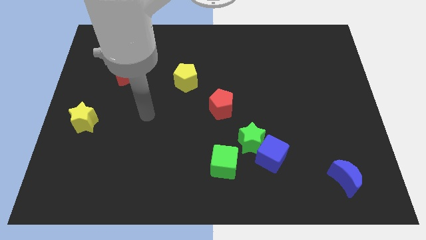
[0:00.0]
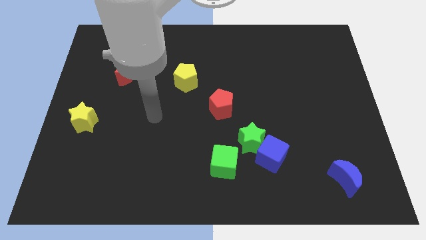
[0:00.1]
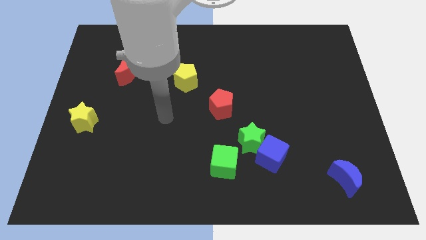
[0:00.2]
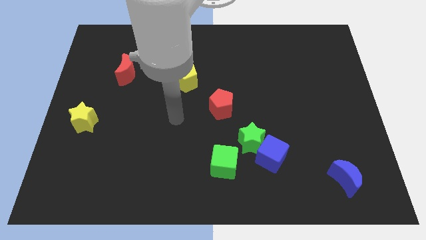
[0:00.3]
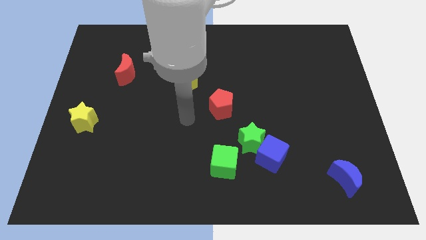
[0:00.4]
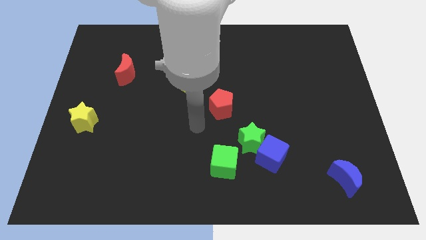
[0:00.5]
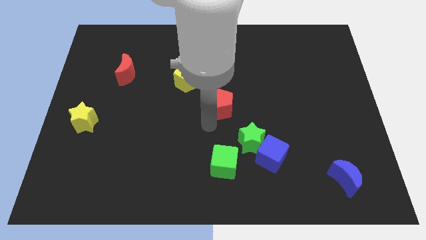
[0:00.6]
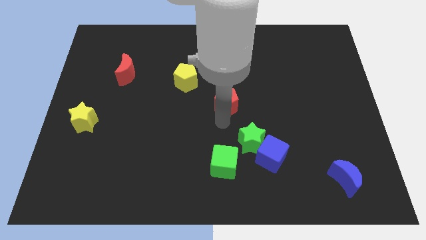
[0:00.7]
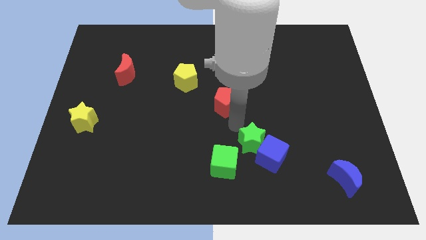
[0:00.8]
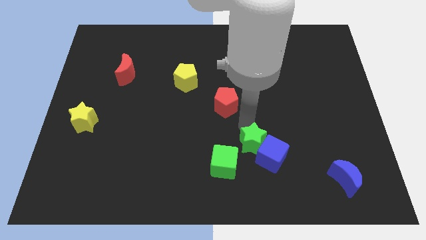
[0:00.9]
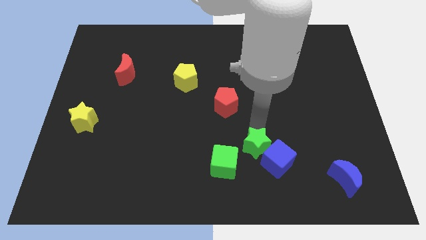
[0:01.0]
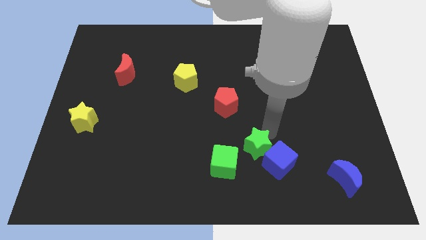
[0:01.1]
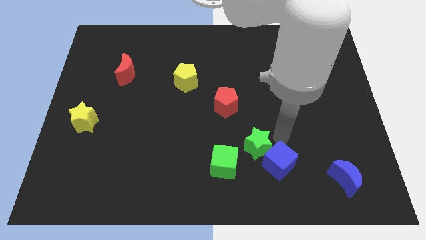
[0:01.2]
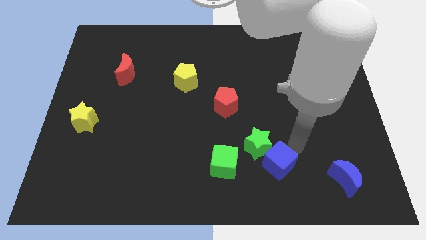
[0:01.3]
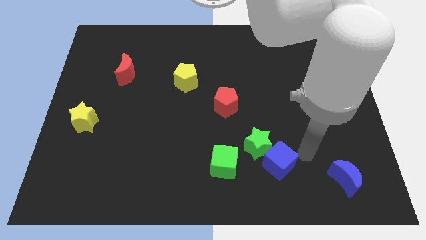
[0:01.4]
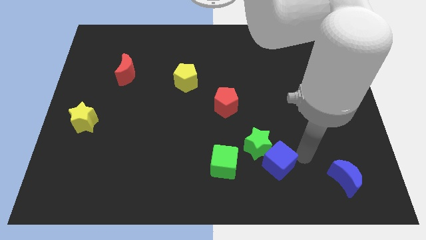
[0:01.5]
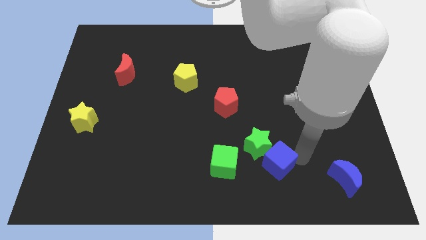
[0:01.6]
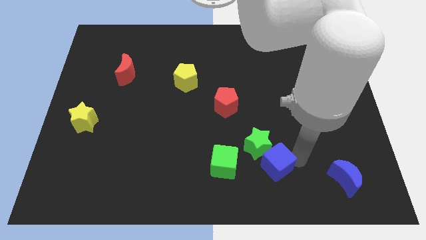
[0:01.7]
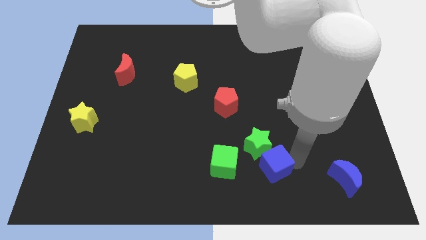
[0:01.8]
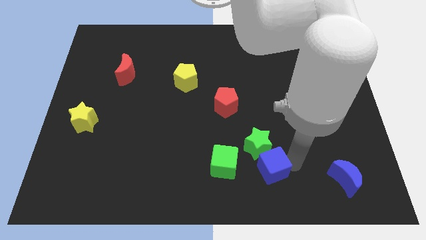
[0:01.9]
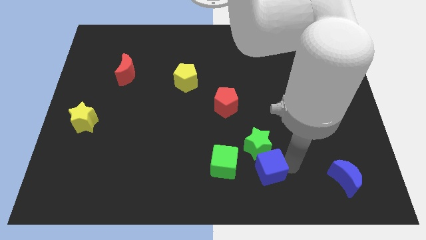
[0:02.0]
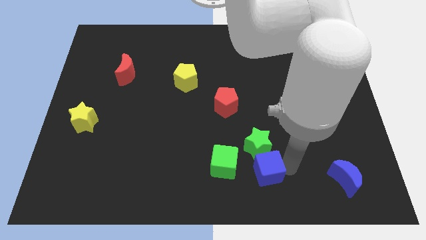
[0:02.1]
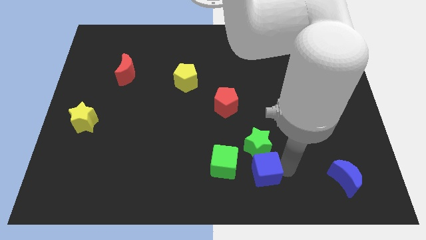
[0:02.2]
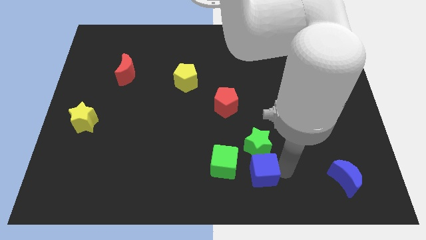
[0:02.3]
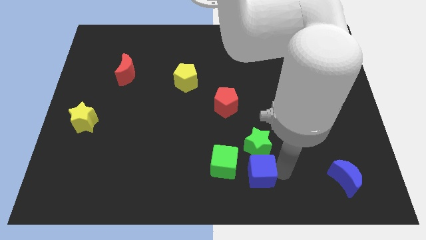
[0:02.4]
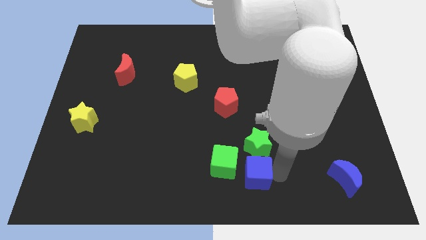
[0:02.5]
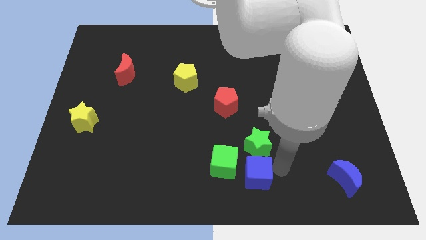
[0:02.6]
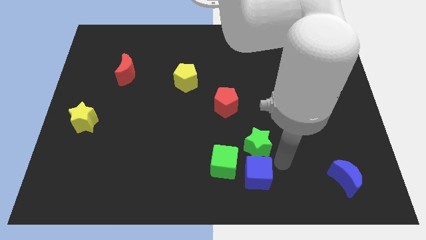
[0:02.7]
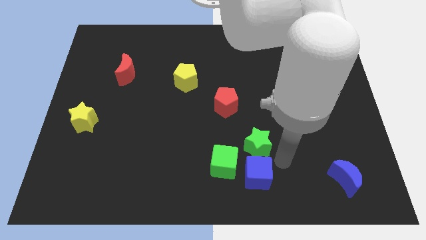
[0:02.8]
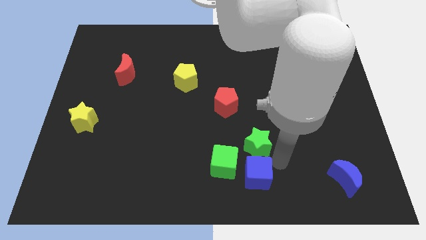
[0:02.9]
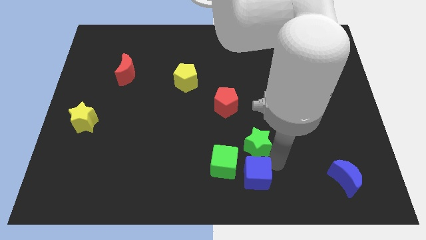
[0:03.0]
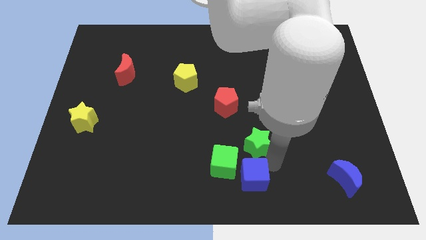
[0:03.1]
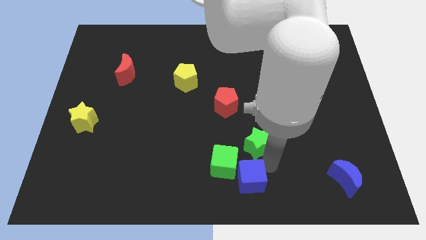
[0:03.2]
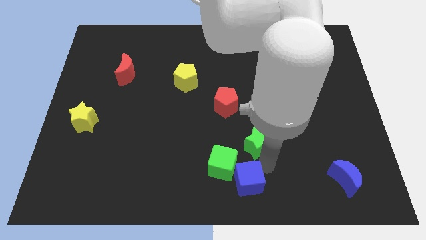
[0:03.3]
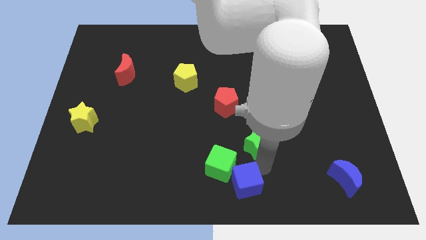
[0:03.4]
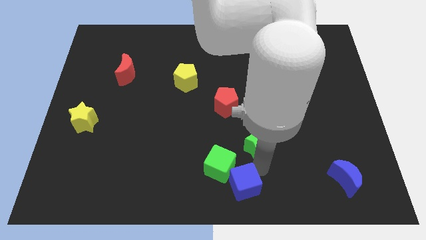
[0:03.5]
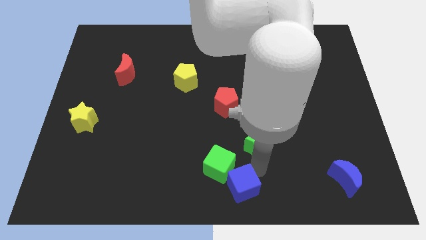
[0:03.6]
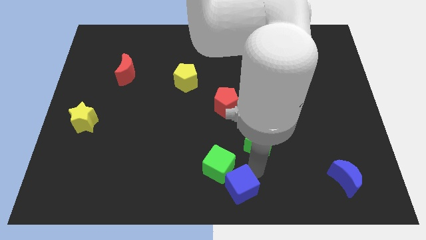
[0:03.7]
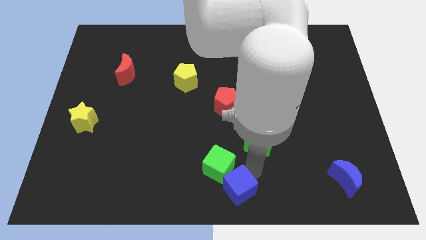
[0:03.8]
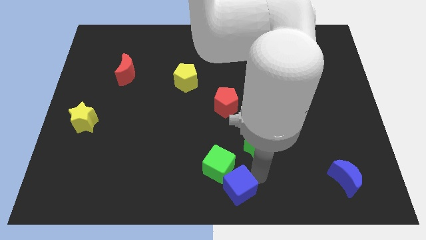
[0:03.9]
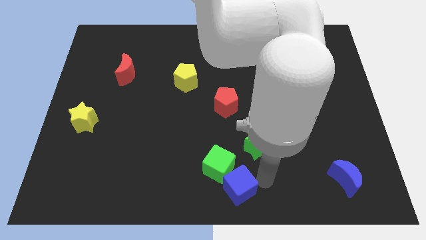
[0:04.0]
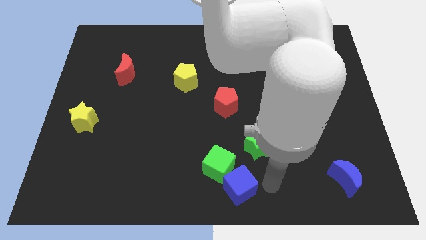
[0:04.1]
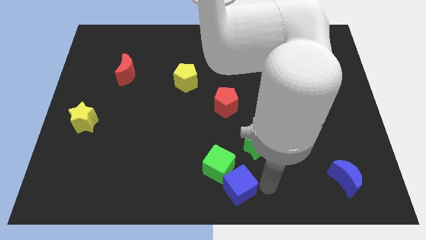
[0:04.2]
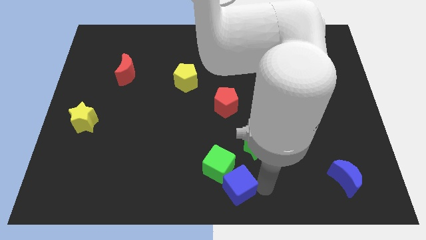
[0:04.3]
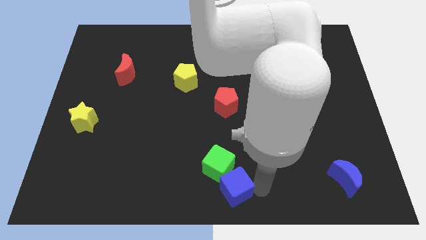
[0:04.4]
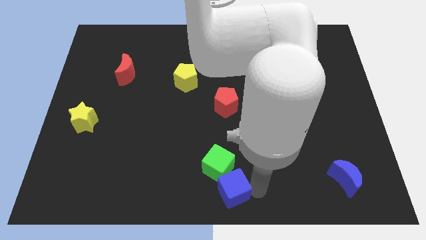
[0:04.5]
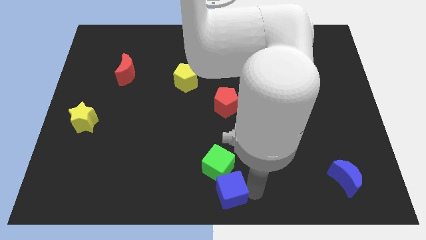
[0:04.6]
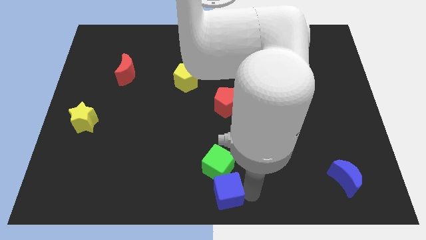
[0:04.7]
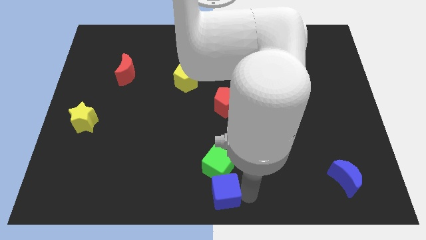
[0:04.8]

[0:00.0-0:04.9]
slide the blue cube a little to the left

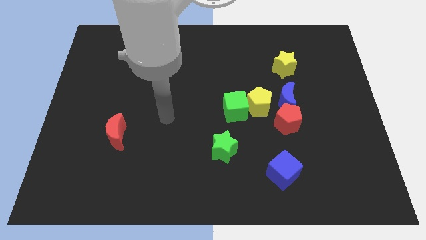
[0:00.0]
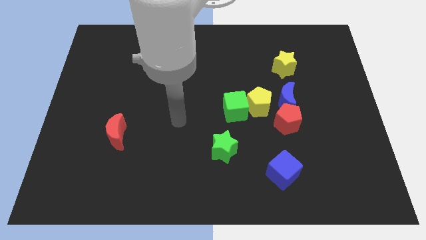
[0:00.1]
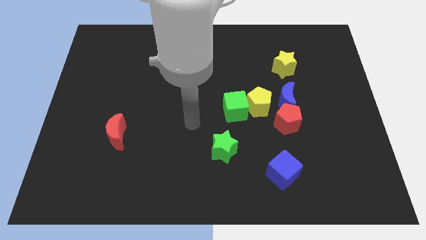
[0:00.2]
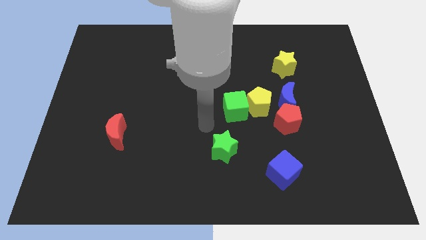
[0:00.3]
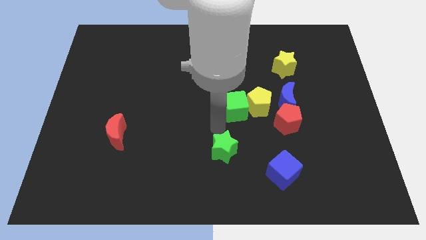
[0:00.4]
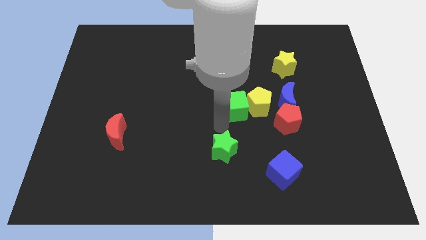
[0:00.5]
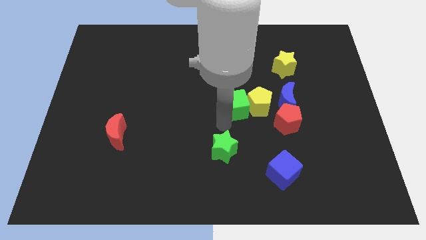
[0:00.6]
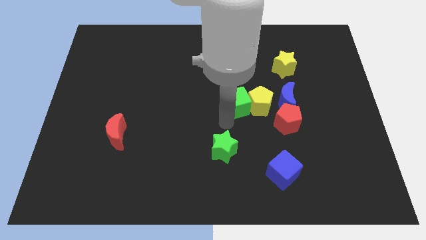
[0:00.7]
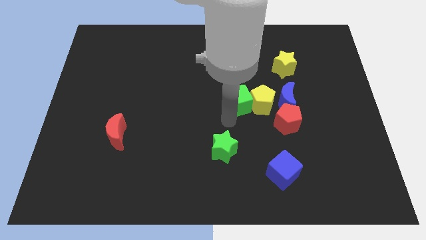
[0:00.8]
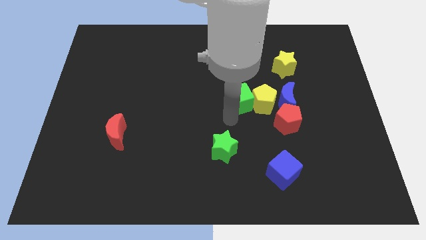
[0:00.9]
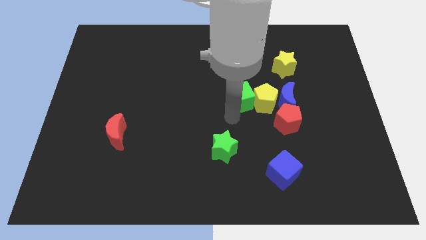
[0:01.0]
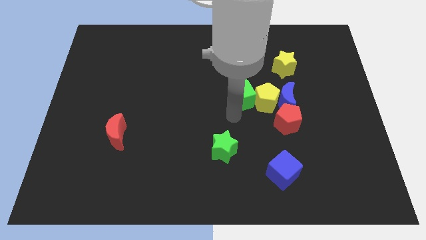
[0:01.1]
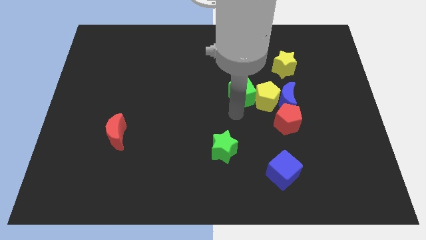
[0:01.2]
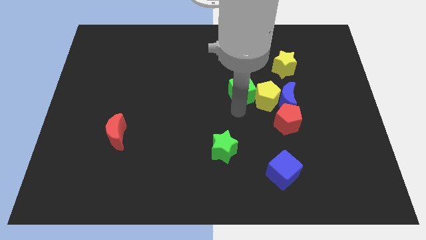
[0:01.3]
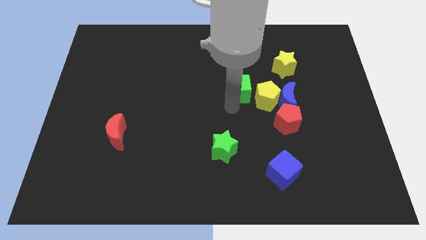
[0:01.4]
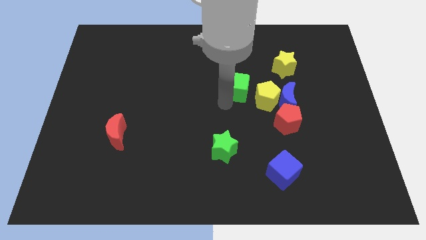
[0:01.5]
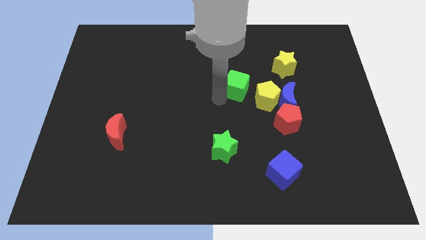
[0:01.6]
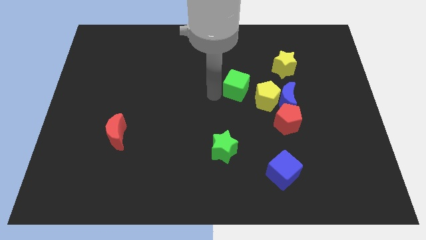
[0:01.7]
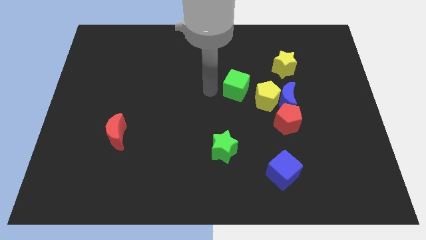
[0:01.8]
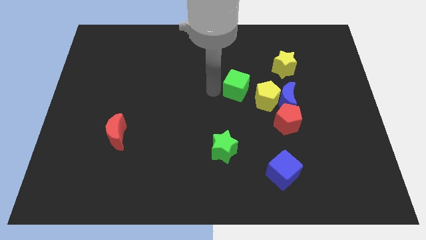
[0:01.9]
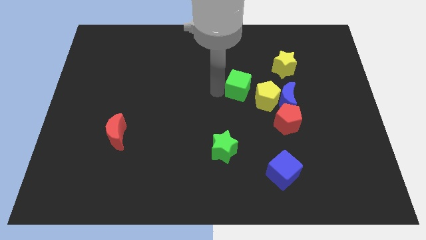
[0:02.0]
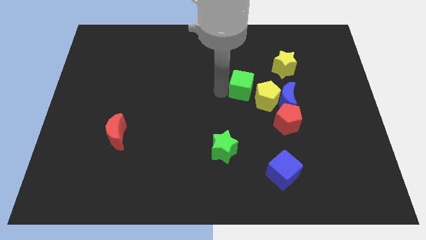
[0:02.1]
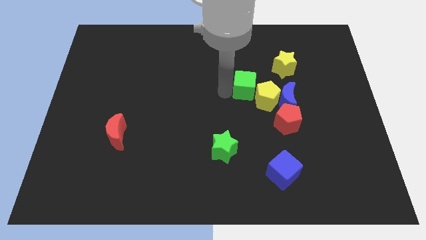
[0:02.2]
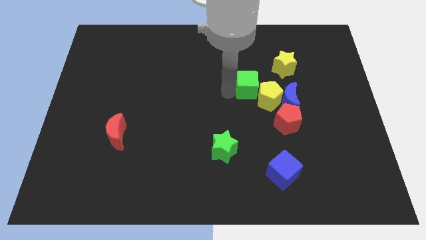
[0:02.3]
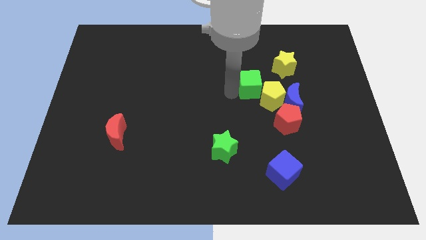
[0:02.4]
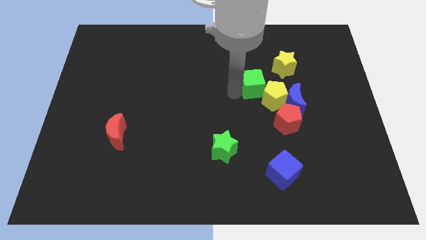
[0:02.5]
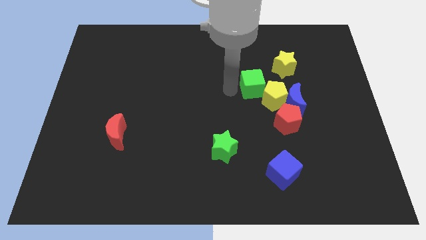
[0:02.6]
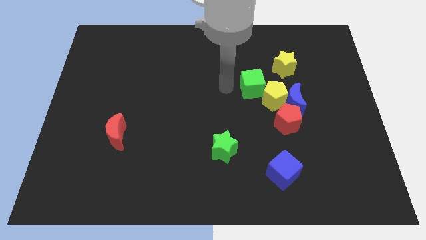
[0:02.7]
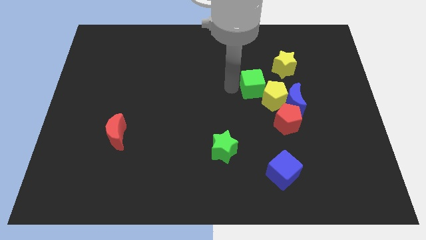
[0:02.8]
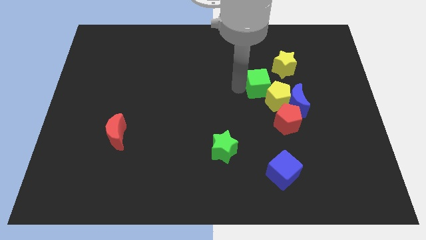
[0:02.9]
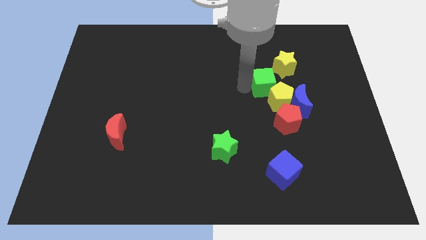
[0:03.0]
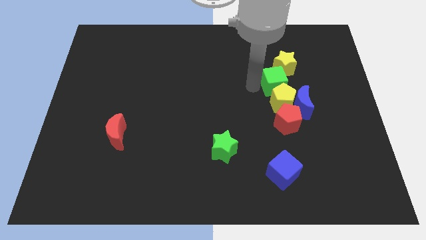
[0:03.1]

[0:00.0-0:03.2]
slightly move the green cube to the right

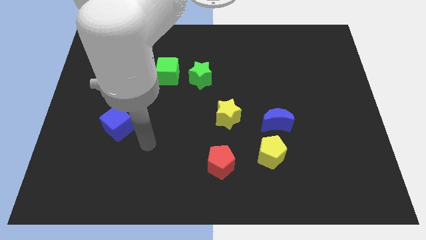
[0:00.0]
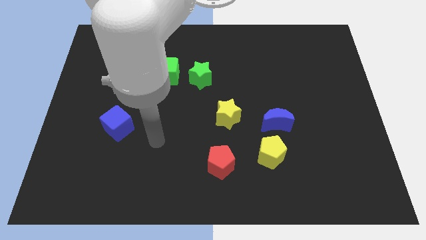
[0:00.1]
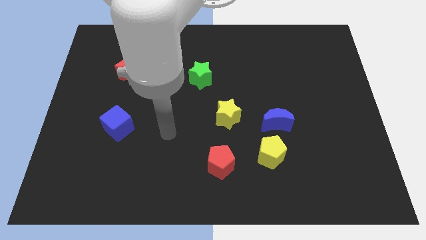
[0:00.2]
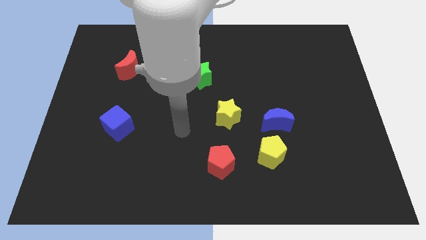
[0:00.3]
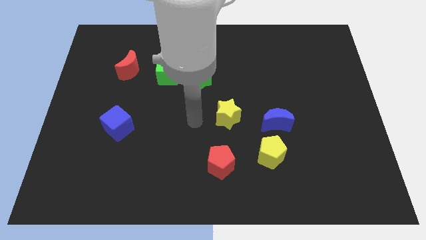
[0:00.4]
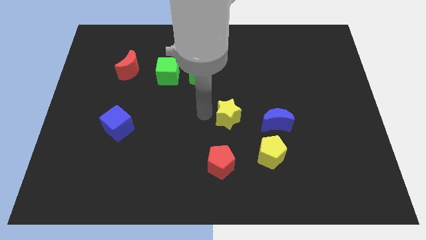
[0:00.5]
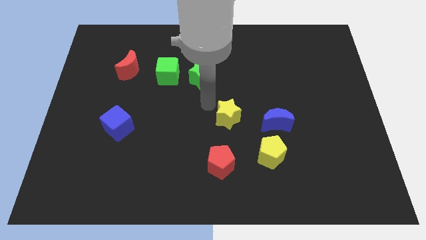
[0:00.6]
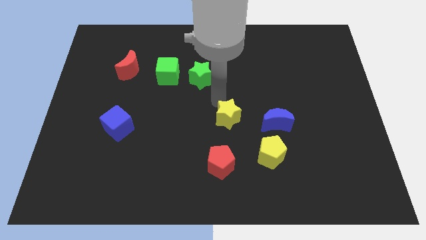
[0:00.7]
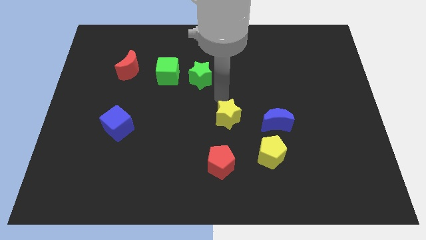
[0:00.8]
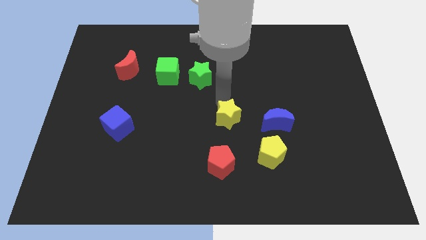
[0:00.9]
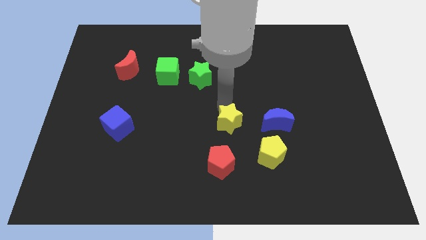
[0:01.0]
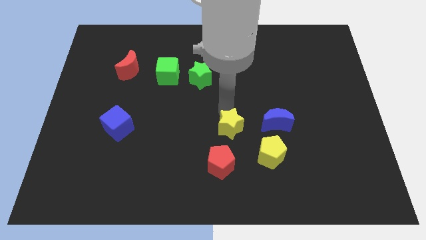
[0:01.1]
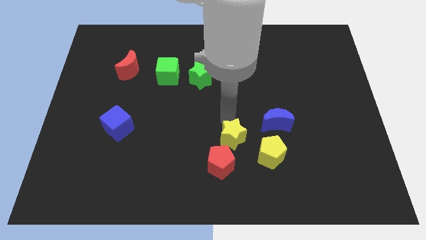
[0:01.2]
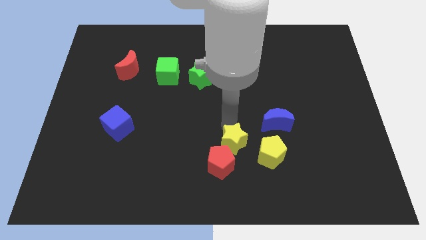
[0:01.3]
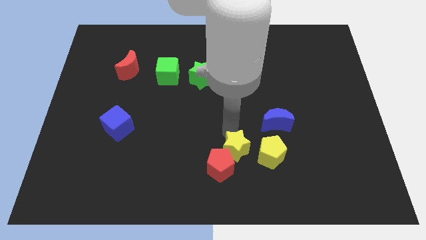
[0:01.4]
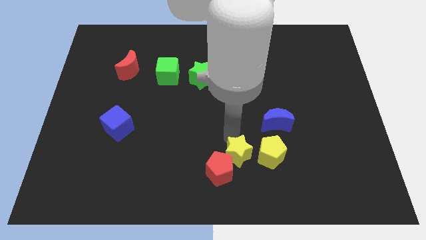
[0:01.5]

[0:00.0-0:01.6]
push the yellow star downwards and then to the right somewhat
